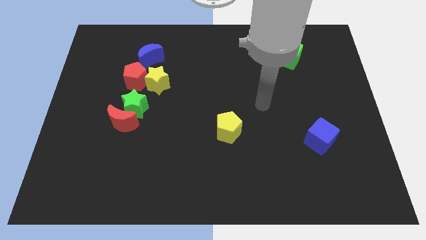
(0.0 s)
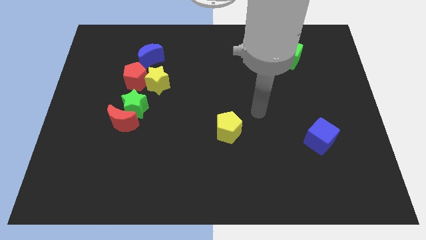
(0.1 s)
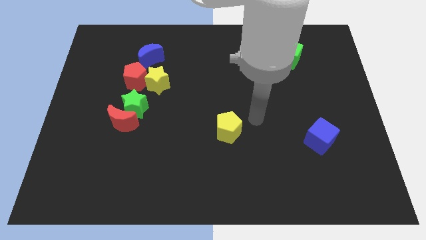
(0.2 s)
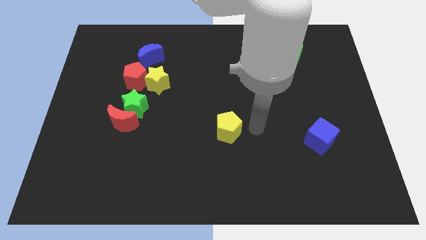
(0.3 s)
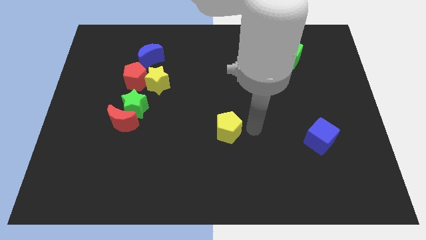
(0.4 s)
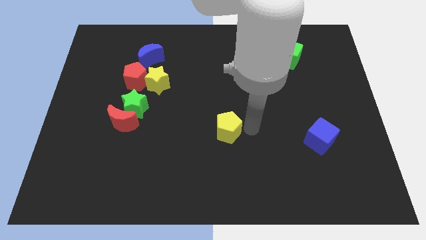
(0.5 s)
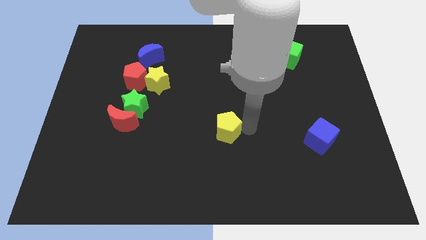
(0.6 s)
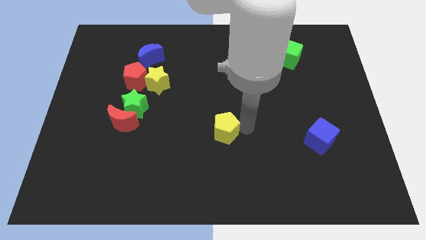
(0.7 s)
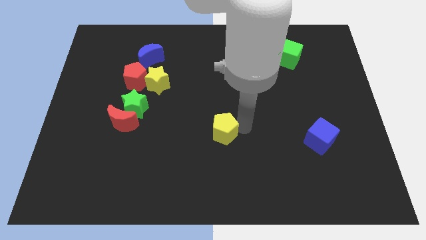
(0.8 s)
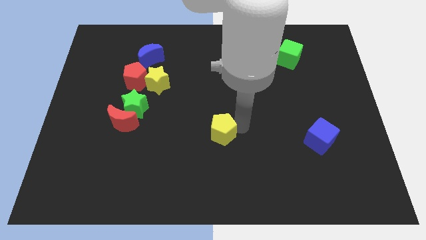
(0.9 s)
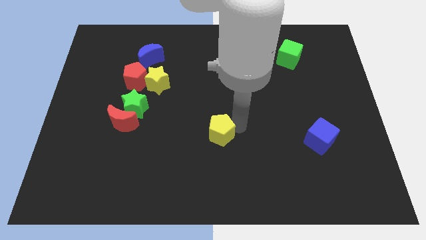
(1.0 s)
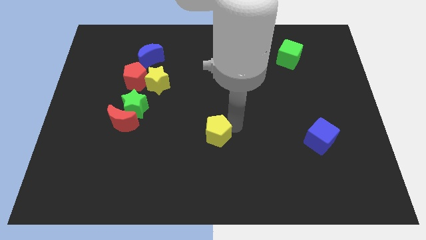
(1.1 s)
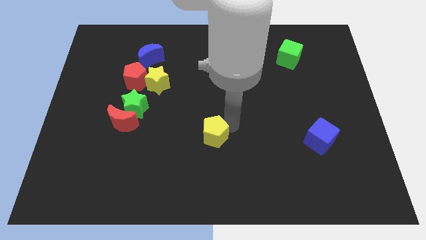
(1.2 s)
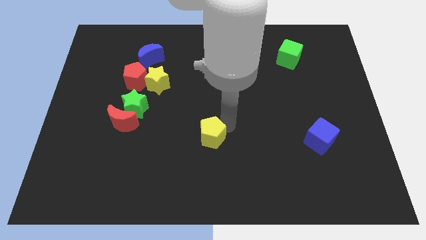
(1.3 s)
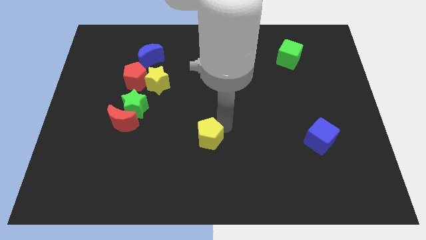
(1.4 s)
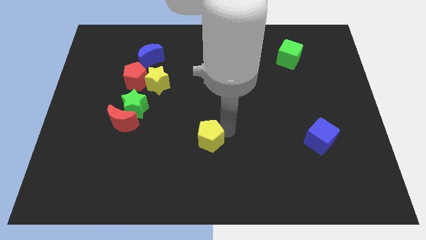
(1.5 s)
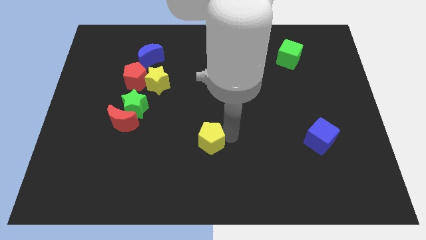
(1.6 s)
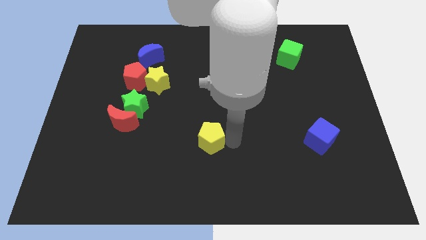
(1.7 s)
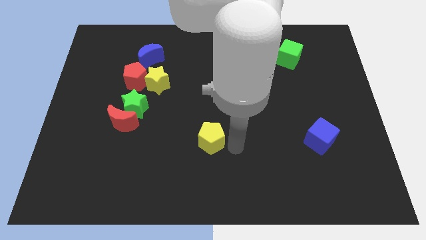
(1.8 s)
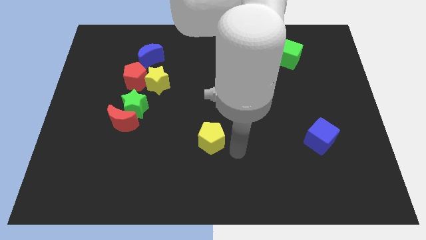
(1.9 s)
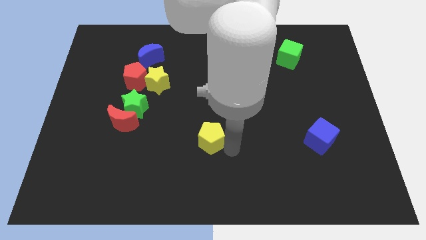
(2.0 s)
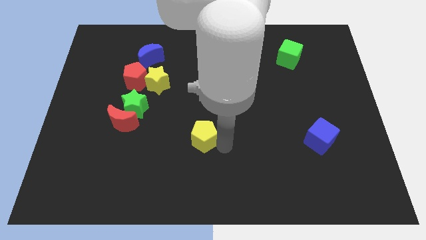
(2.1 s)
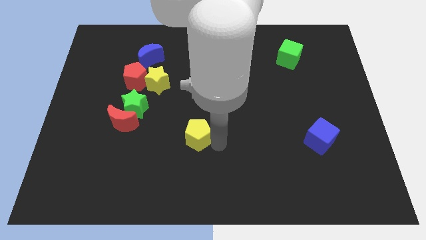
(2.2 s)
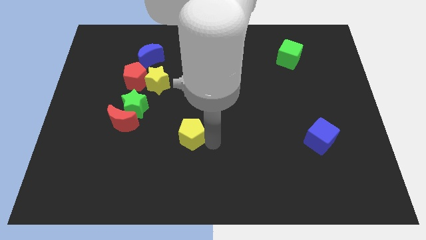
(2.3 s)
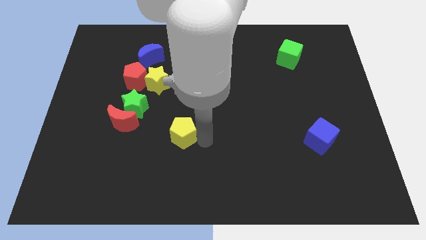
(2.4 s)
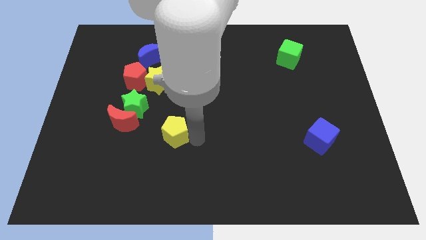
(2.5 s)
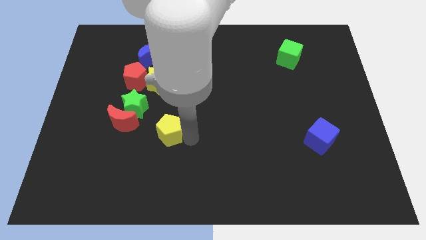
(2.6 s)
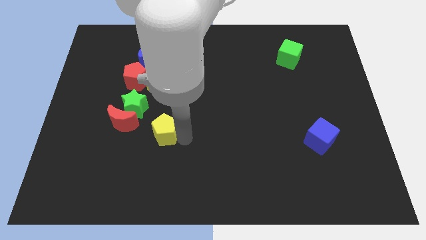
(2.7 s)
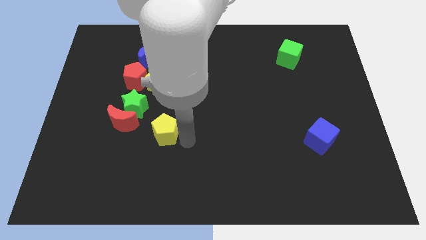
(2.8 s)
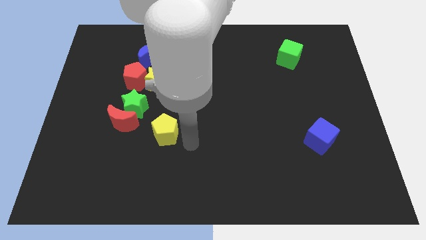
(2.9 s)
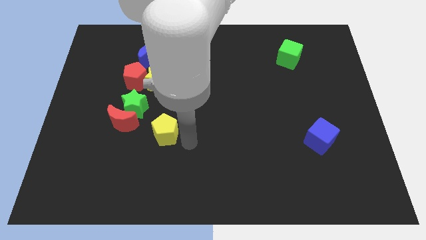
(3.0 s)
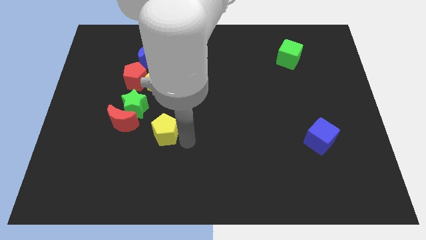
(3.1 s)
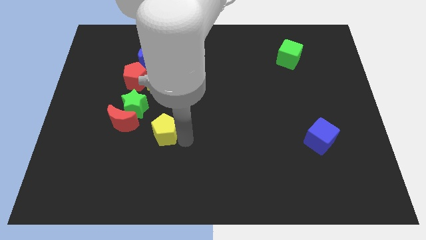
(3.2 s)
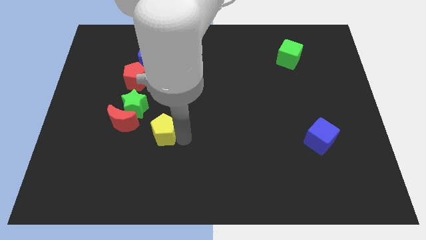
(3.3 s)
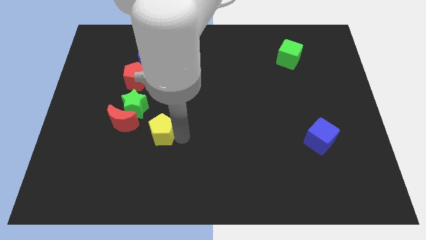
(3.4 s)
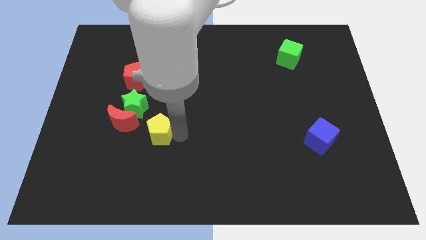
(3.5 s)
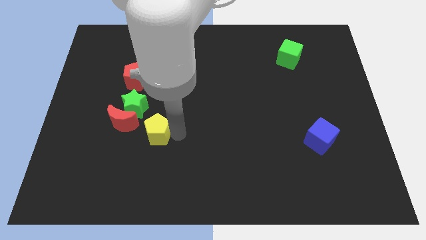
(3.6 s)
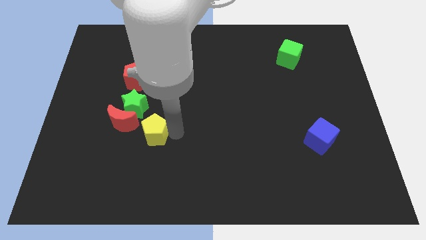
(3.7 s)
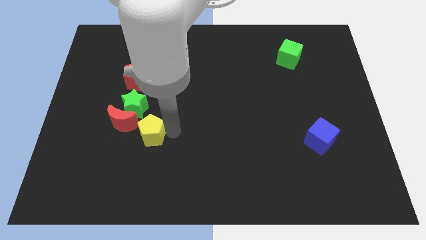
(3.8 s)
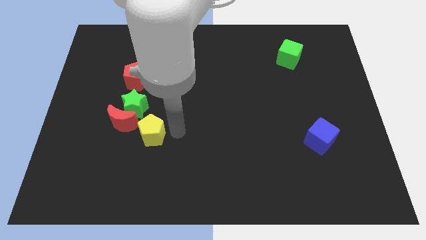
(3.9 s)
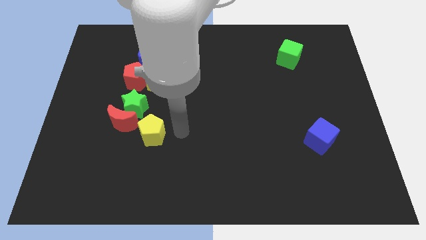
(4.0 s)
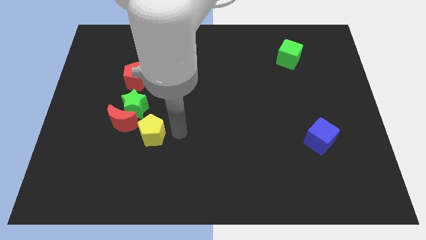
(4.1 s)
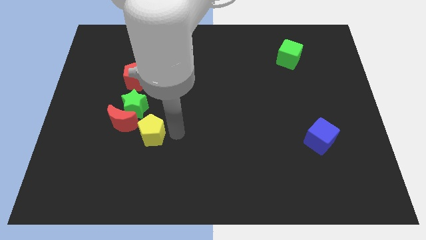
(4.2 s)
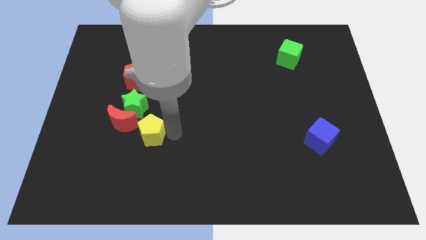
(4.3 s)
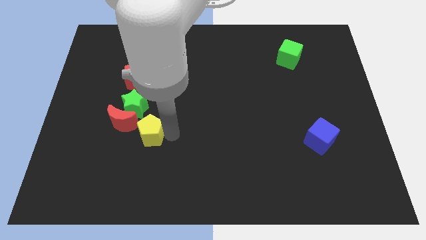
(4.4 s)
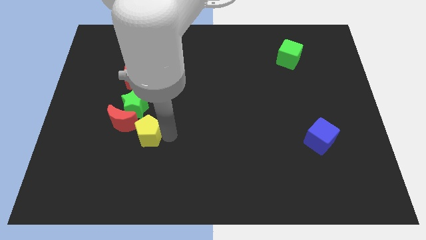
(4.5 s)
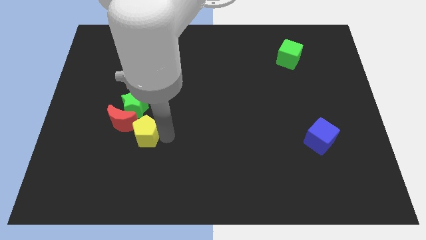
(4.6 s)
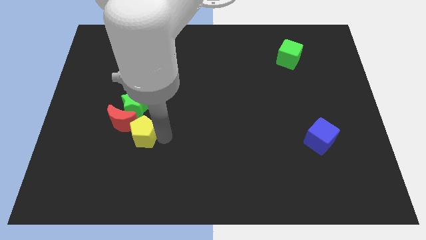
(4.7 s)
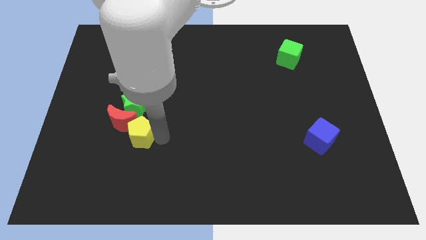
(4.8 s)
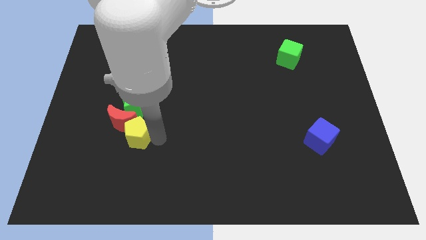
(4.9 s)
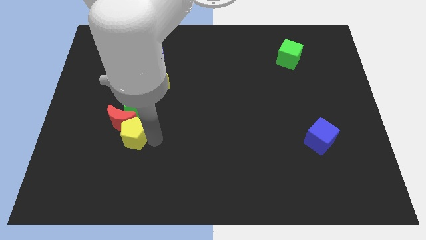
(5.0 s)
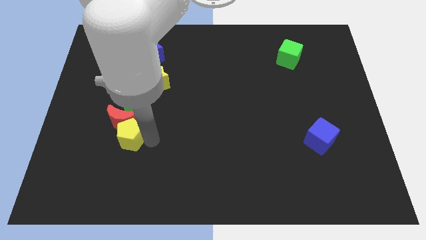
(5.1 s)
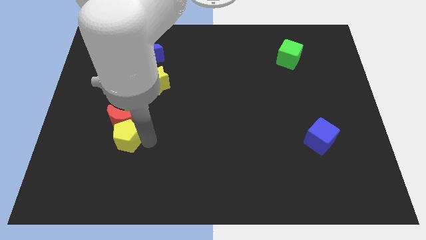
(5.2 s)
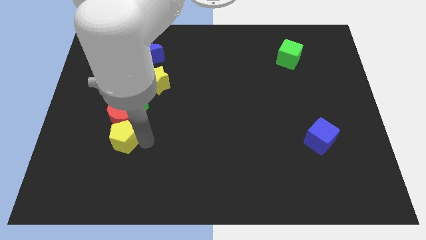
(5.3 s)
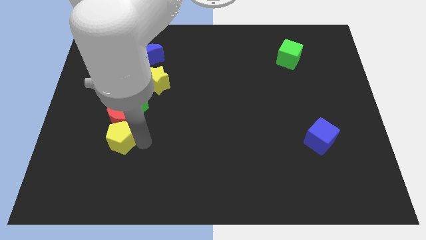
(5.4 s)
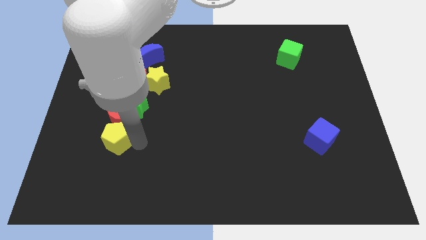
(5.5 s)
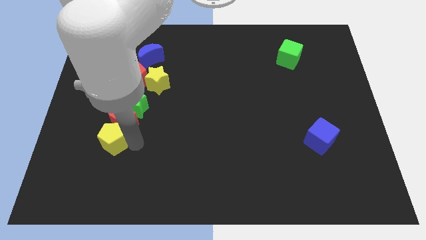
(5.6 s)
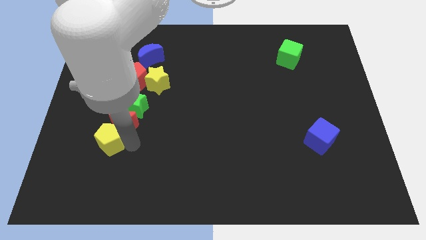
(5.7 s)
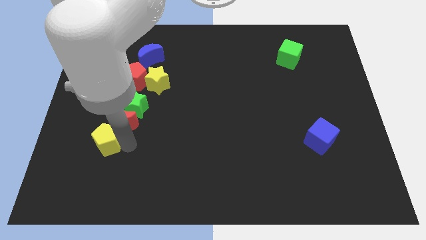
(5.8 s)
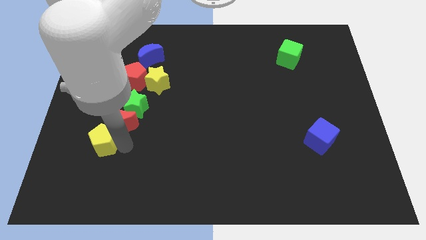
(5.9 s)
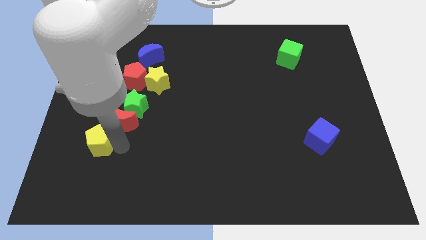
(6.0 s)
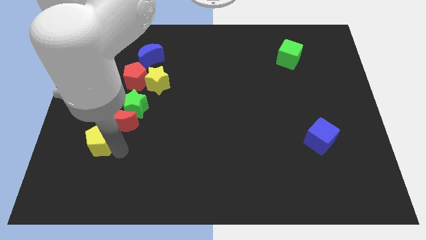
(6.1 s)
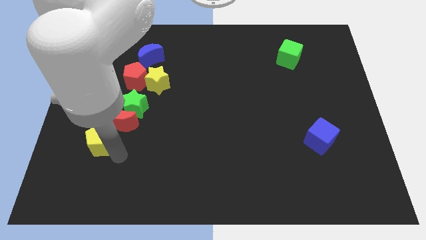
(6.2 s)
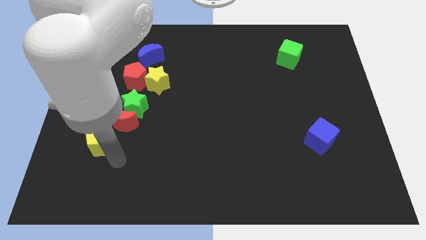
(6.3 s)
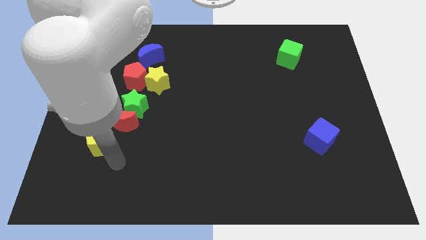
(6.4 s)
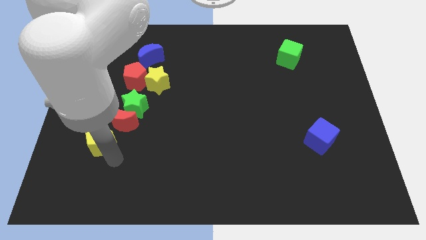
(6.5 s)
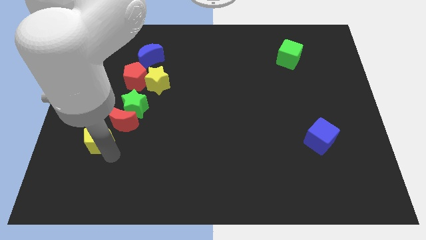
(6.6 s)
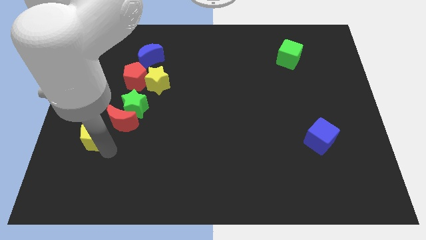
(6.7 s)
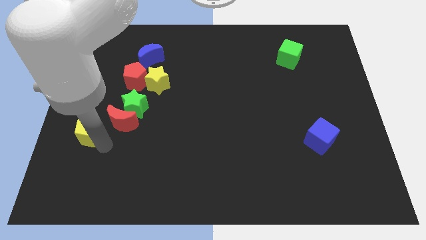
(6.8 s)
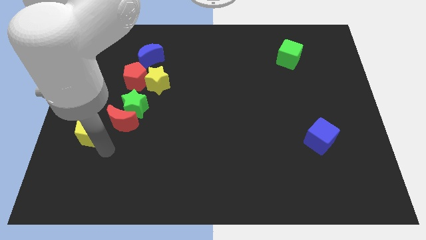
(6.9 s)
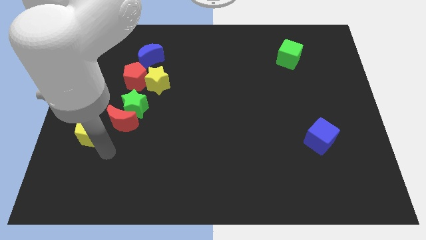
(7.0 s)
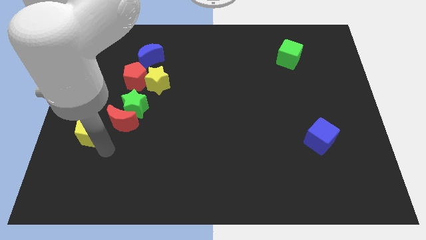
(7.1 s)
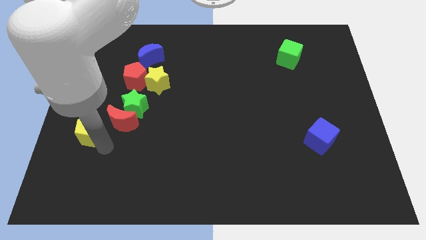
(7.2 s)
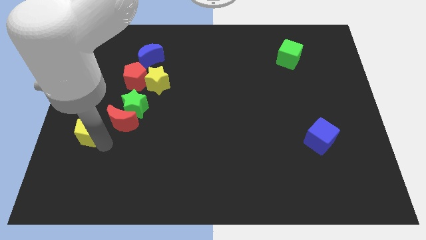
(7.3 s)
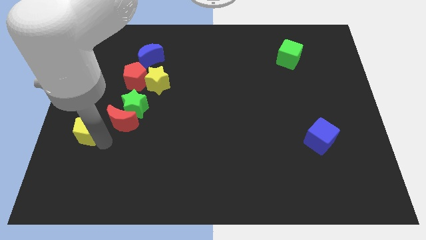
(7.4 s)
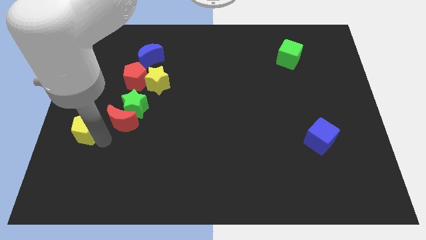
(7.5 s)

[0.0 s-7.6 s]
slide the yellow pentagon to the left side of the board
